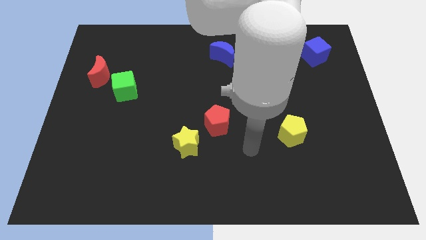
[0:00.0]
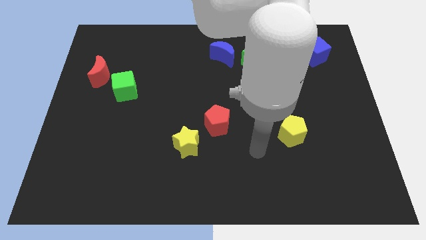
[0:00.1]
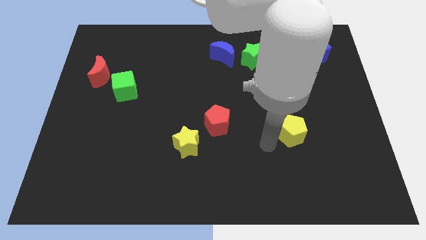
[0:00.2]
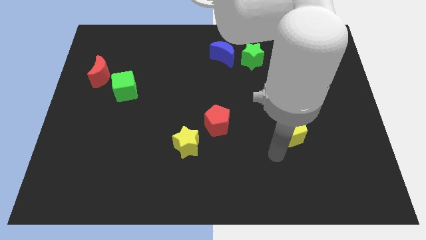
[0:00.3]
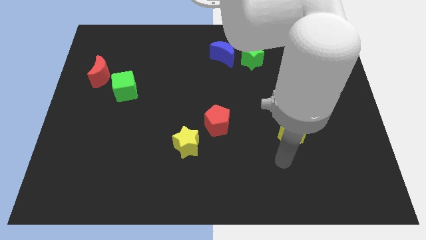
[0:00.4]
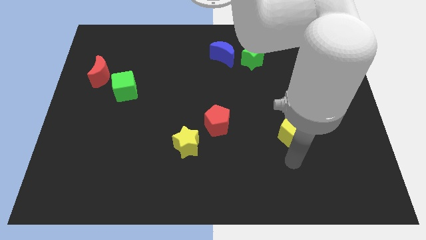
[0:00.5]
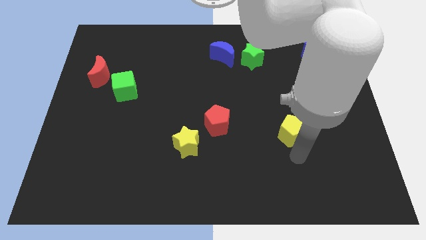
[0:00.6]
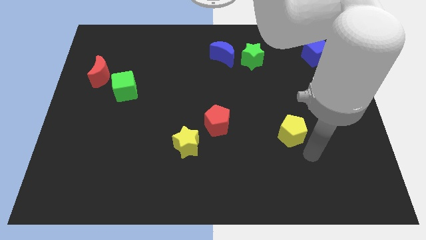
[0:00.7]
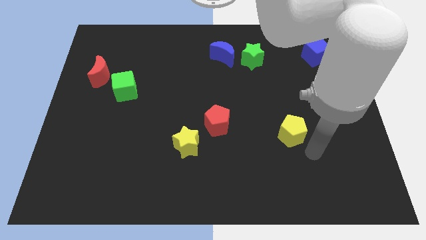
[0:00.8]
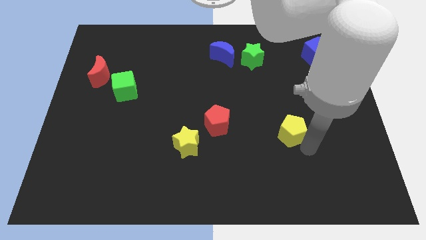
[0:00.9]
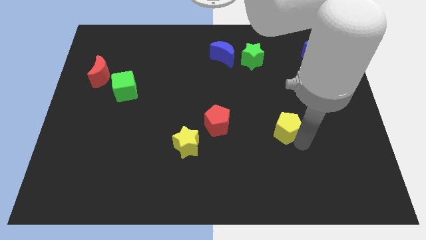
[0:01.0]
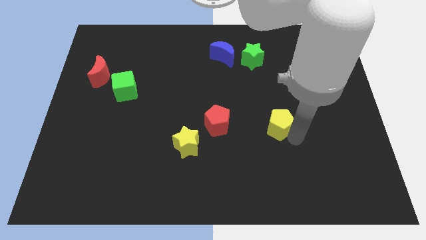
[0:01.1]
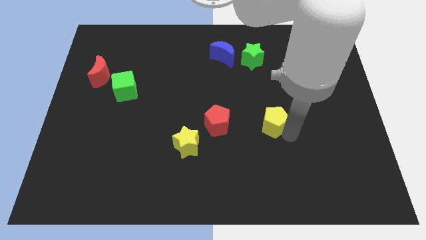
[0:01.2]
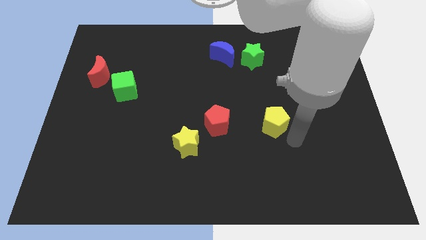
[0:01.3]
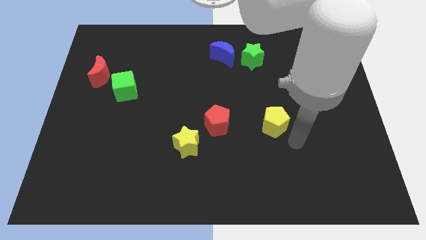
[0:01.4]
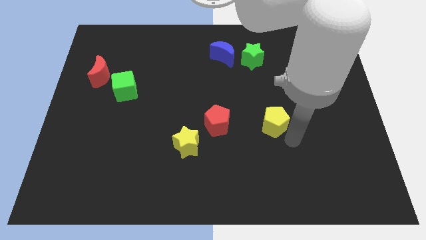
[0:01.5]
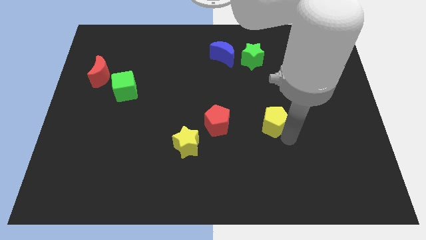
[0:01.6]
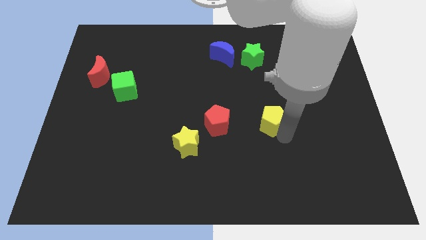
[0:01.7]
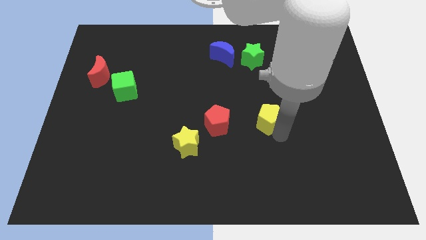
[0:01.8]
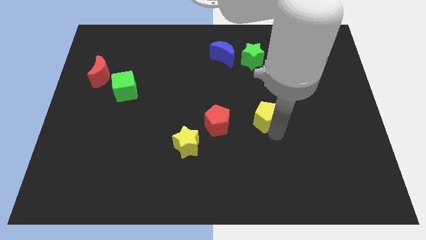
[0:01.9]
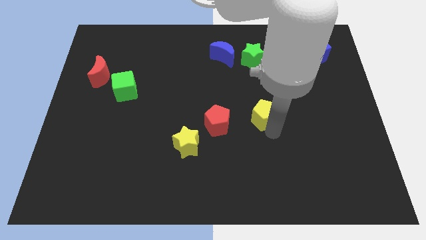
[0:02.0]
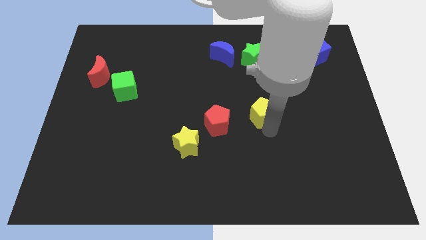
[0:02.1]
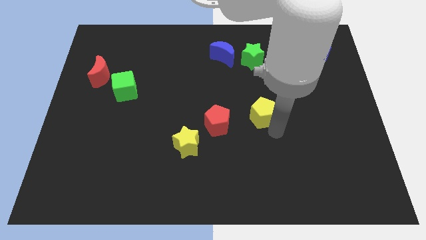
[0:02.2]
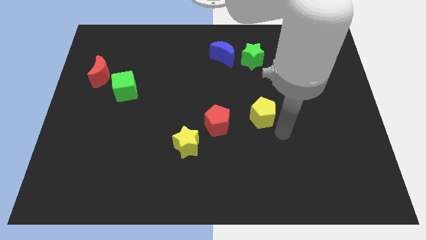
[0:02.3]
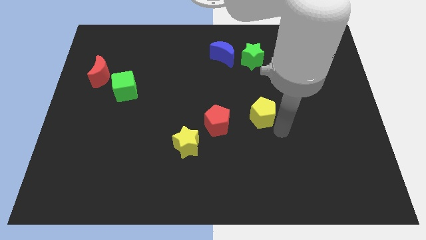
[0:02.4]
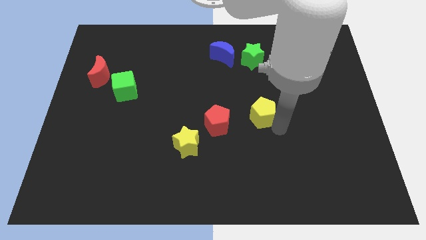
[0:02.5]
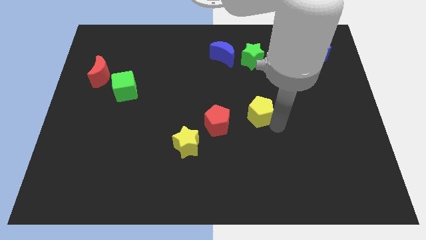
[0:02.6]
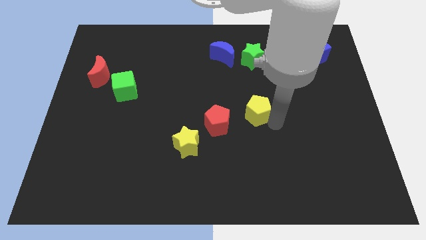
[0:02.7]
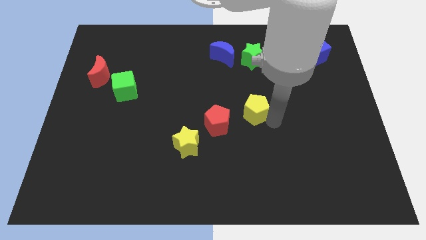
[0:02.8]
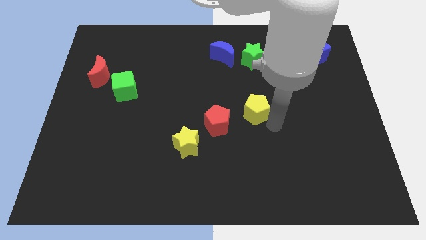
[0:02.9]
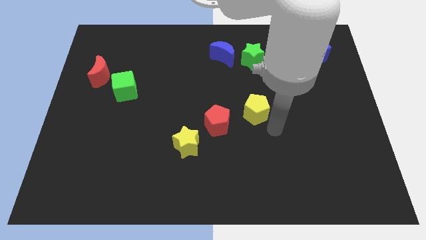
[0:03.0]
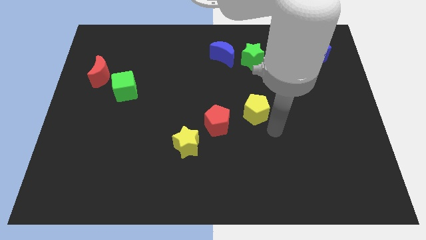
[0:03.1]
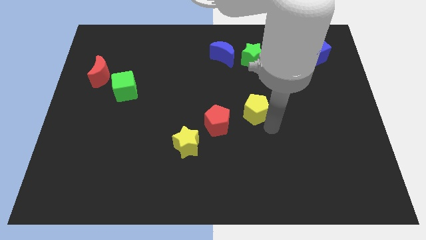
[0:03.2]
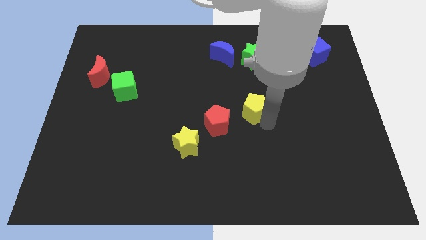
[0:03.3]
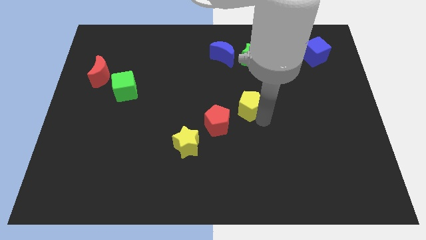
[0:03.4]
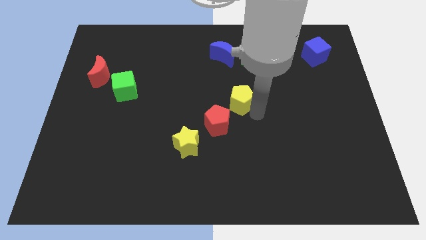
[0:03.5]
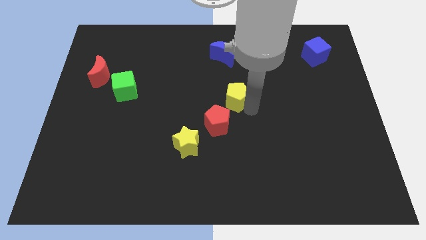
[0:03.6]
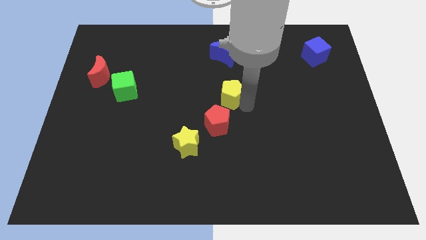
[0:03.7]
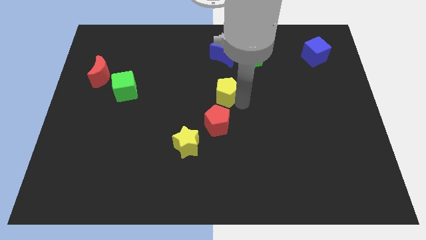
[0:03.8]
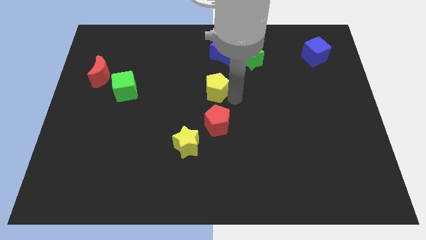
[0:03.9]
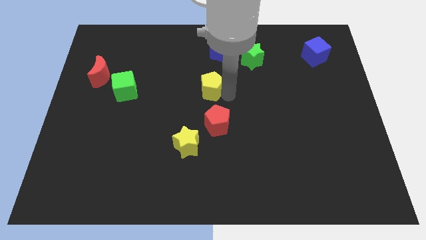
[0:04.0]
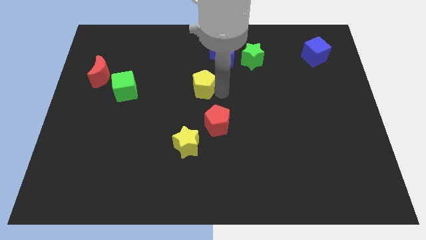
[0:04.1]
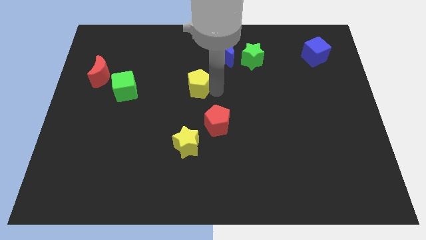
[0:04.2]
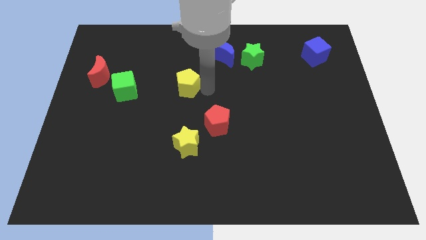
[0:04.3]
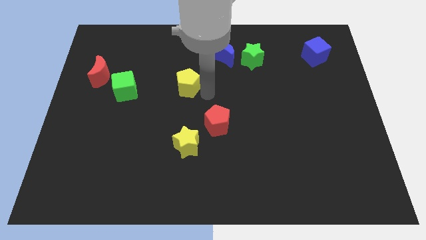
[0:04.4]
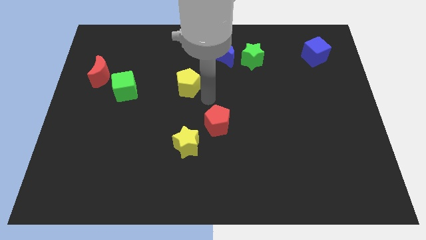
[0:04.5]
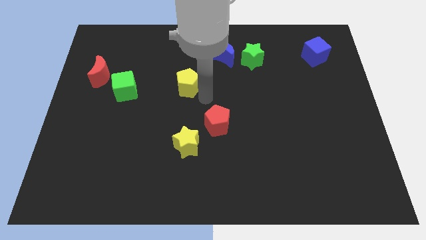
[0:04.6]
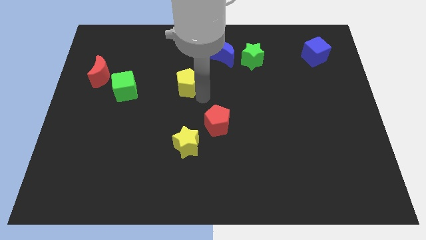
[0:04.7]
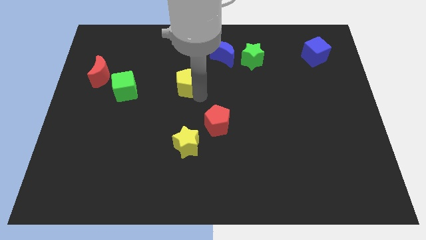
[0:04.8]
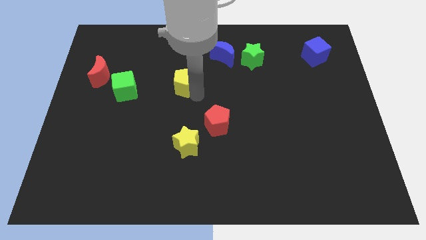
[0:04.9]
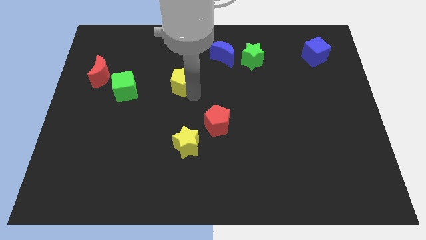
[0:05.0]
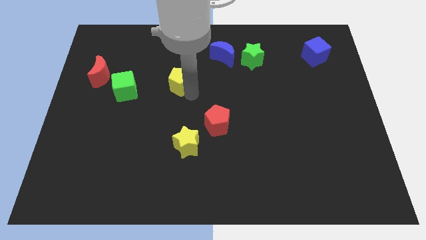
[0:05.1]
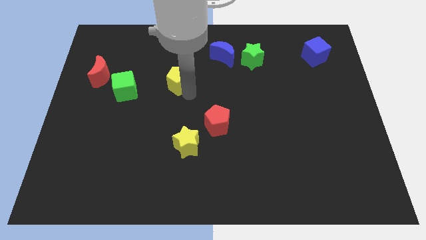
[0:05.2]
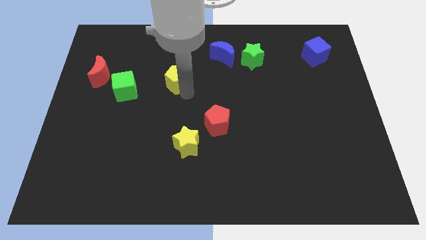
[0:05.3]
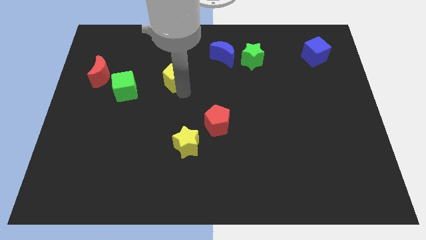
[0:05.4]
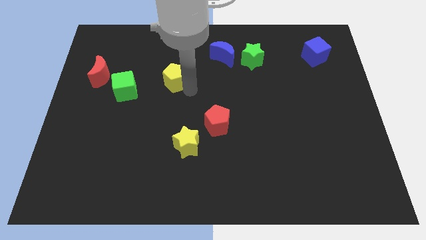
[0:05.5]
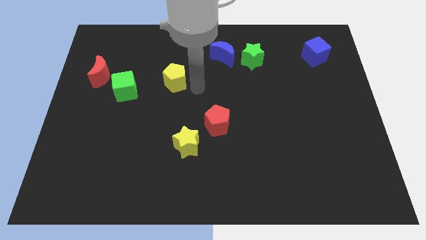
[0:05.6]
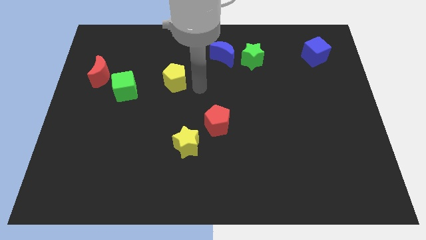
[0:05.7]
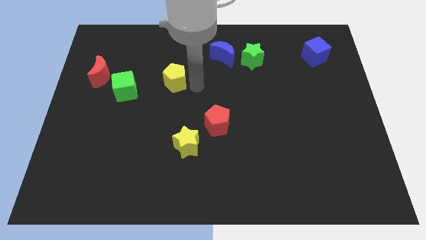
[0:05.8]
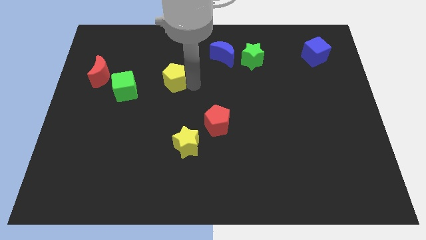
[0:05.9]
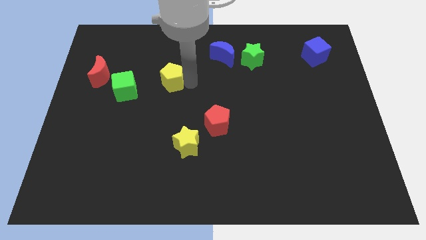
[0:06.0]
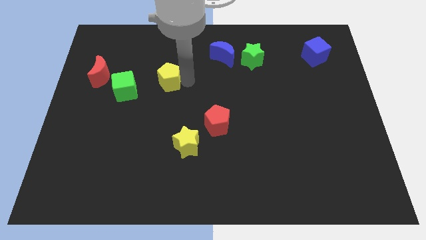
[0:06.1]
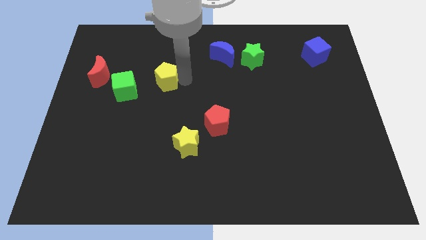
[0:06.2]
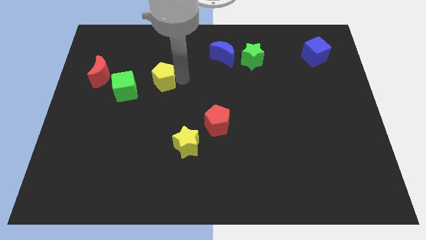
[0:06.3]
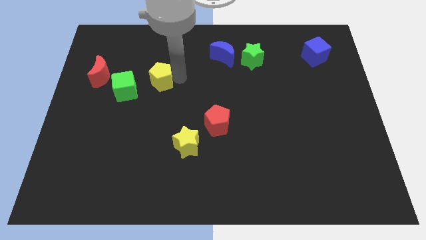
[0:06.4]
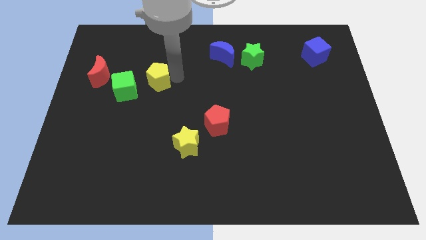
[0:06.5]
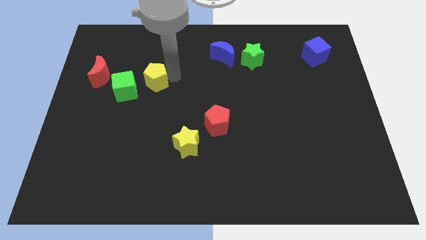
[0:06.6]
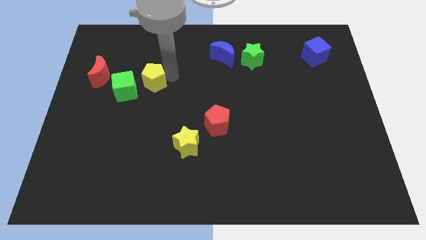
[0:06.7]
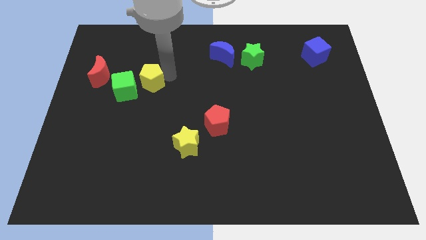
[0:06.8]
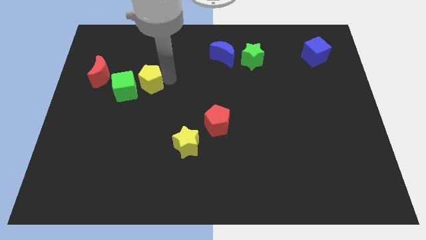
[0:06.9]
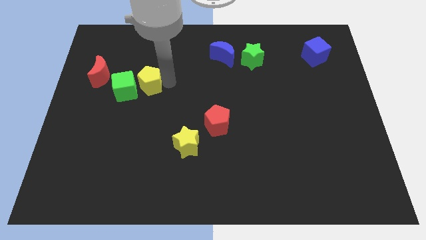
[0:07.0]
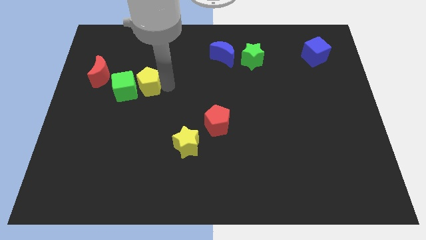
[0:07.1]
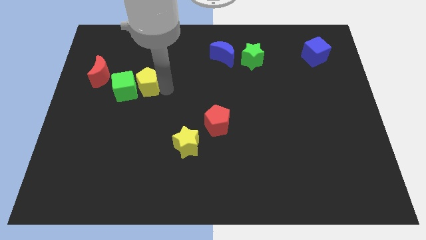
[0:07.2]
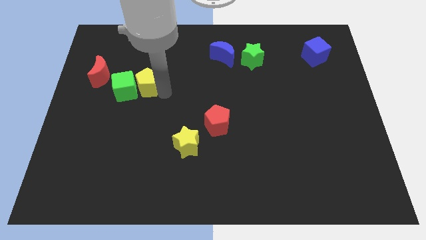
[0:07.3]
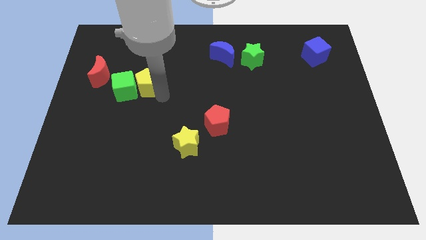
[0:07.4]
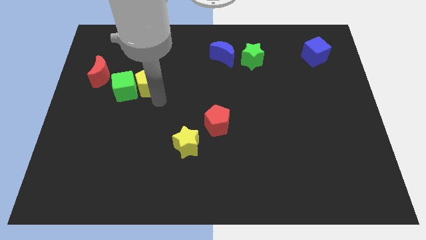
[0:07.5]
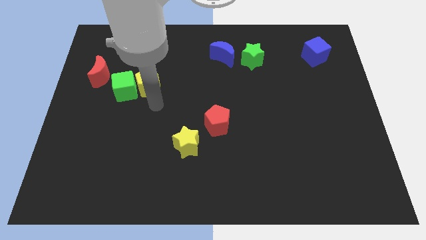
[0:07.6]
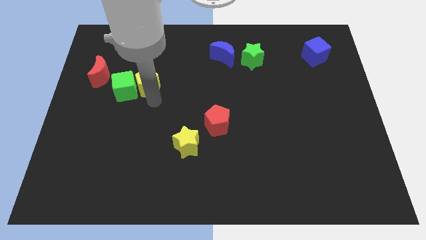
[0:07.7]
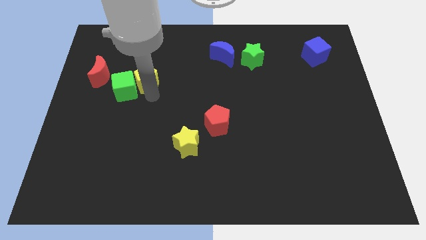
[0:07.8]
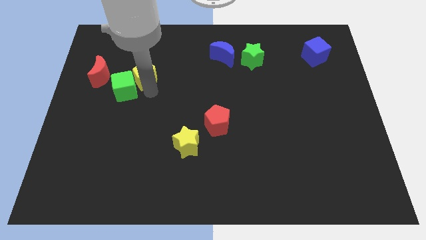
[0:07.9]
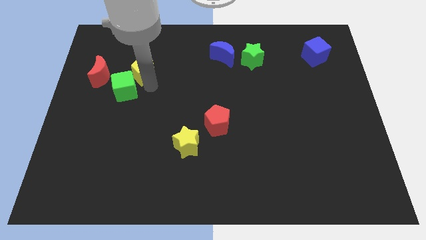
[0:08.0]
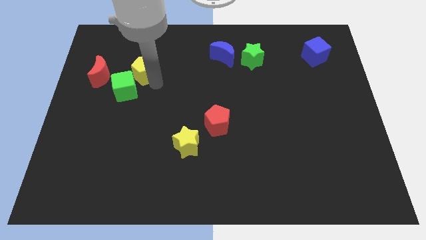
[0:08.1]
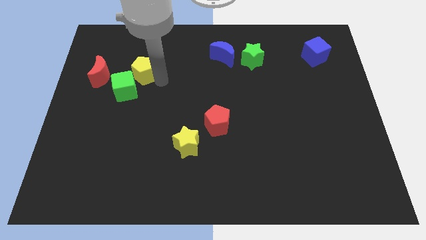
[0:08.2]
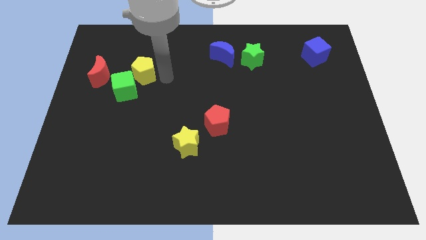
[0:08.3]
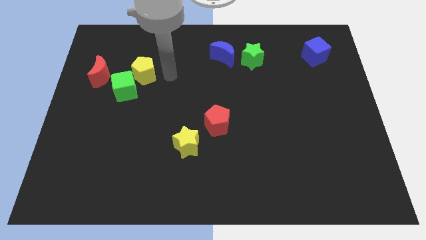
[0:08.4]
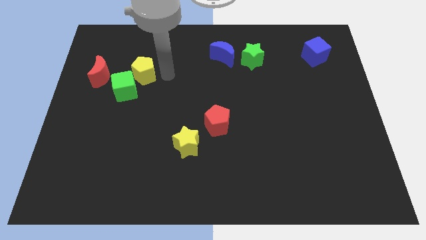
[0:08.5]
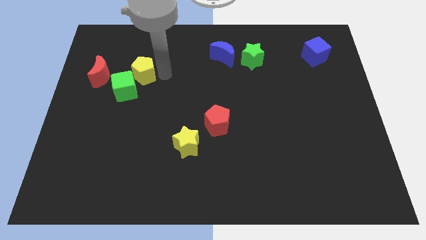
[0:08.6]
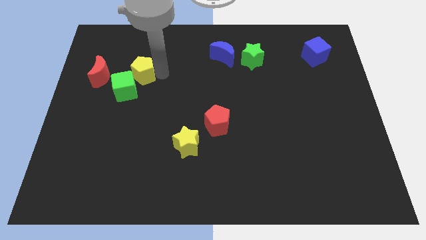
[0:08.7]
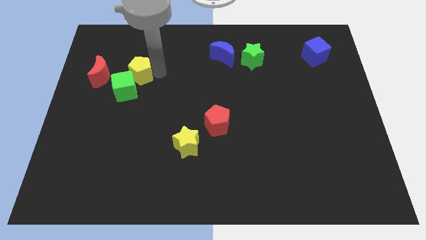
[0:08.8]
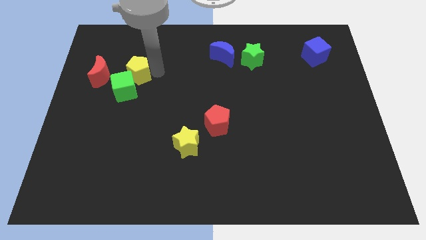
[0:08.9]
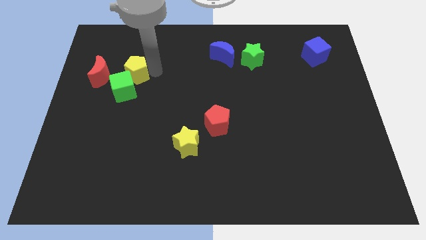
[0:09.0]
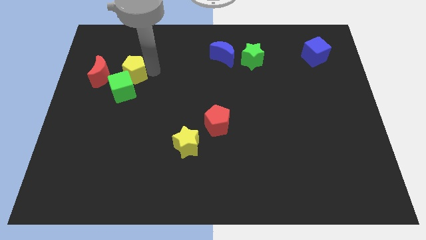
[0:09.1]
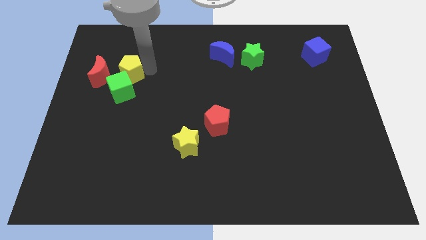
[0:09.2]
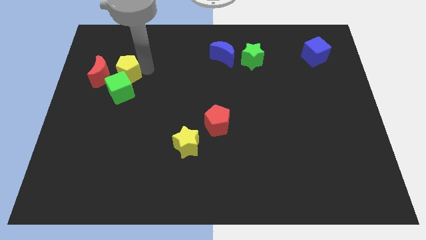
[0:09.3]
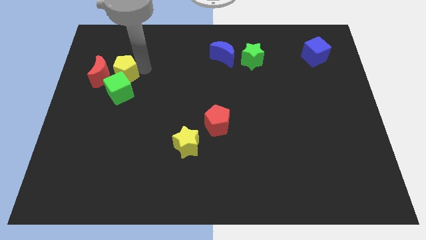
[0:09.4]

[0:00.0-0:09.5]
move the yellow pentagon towards the red moon
